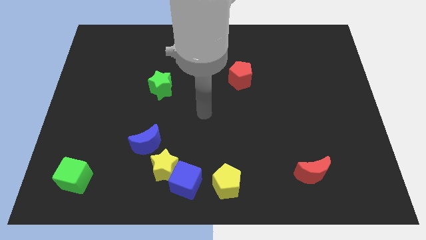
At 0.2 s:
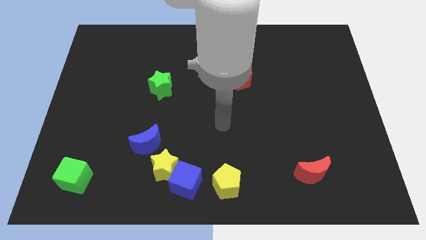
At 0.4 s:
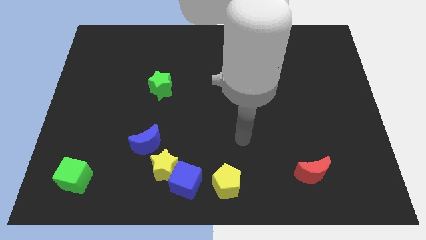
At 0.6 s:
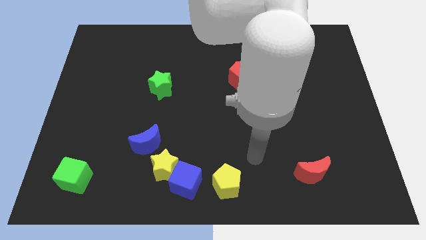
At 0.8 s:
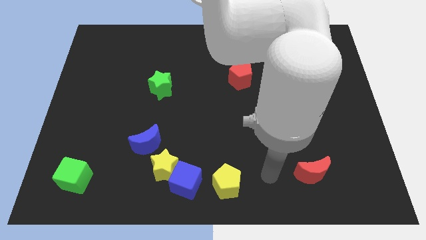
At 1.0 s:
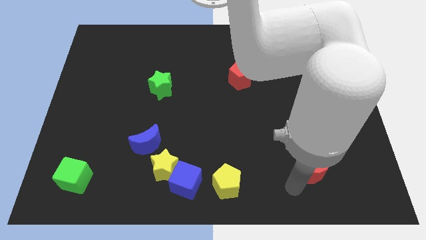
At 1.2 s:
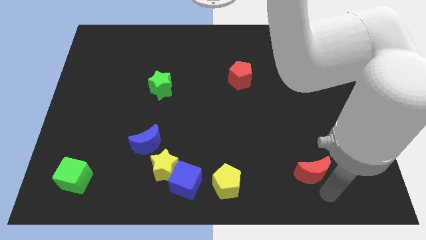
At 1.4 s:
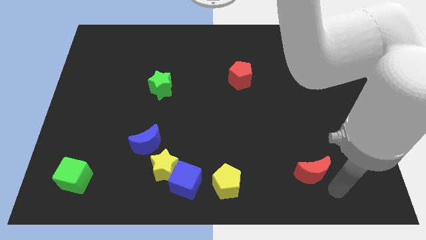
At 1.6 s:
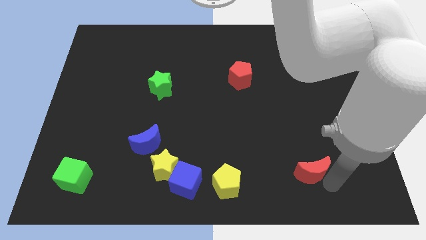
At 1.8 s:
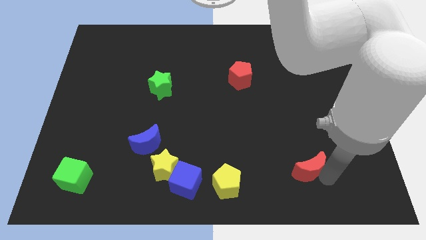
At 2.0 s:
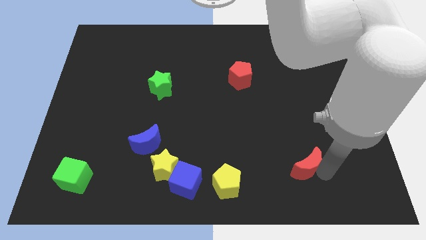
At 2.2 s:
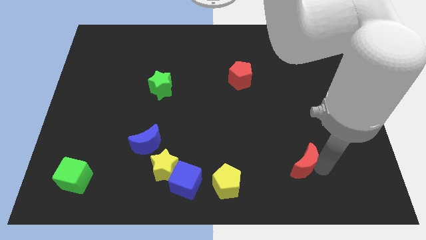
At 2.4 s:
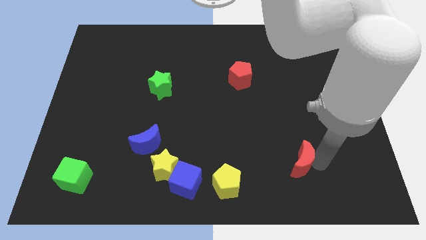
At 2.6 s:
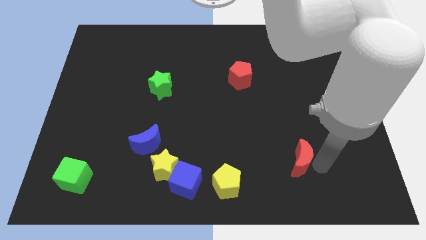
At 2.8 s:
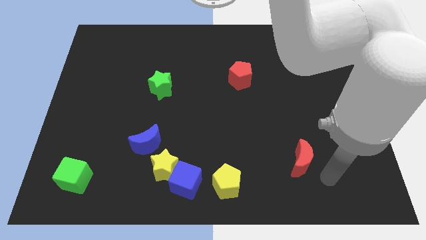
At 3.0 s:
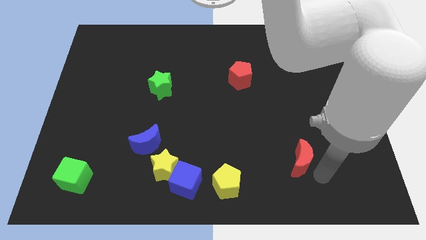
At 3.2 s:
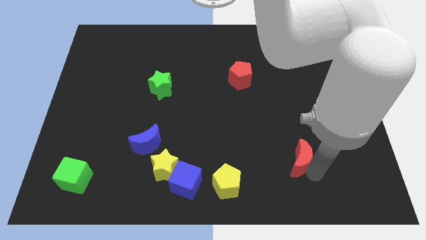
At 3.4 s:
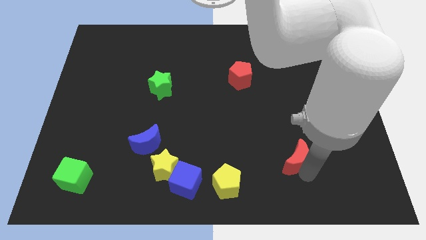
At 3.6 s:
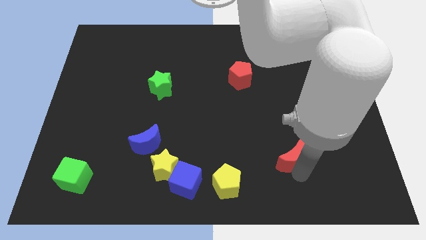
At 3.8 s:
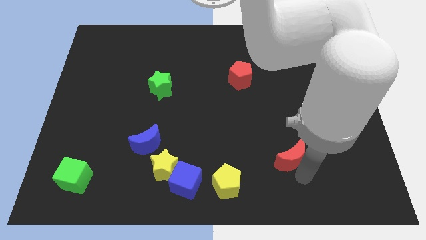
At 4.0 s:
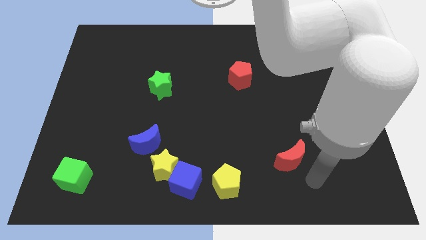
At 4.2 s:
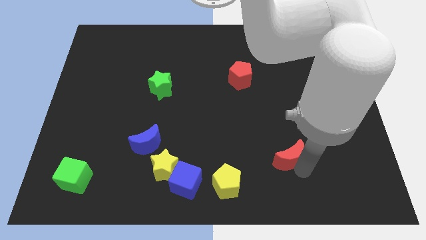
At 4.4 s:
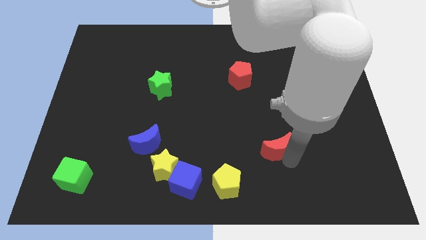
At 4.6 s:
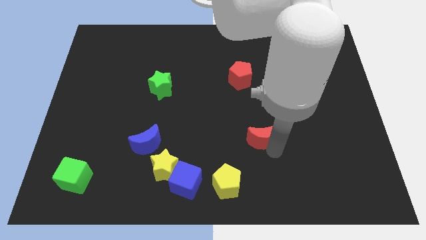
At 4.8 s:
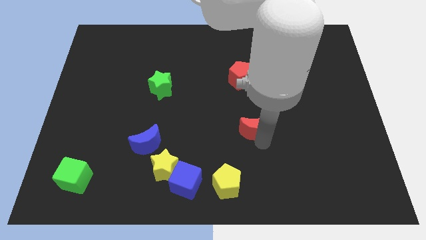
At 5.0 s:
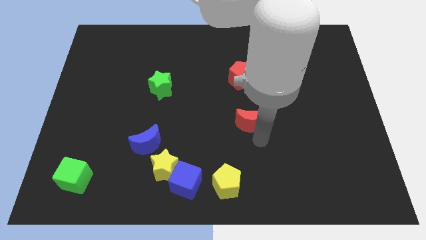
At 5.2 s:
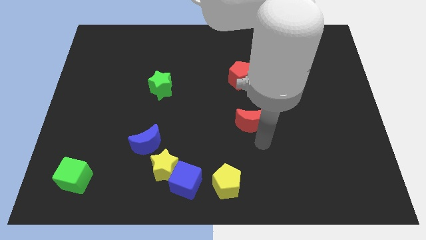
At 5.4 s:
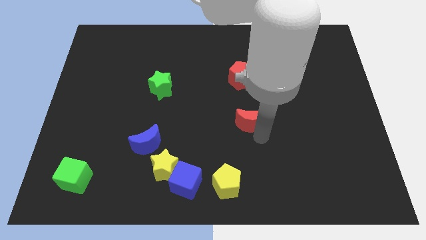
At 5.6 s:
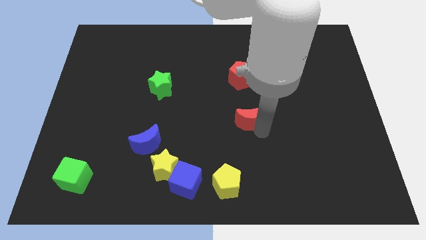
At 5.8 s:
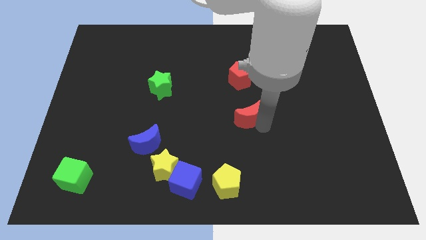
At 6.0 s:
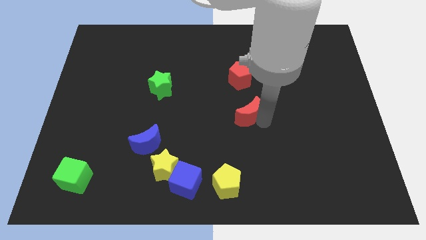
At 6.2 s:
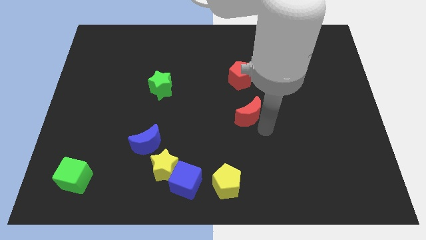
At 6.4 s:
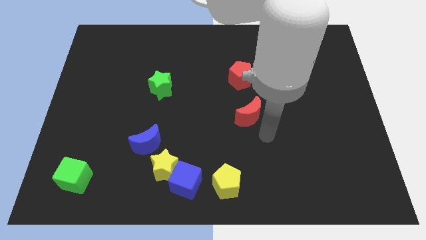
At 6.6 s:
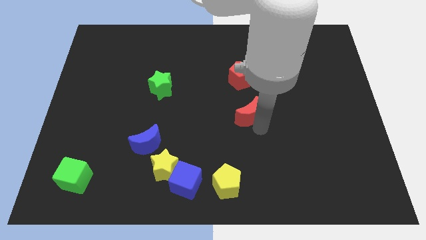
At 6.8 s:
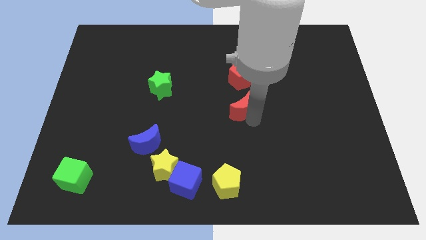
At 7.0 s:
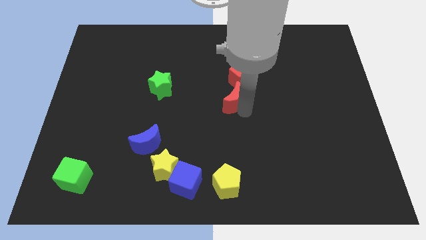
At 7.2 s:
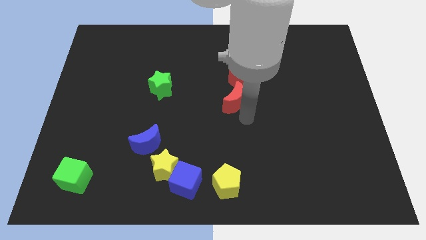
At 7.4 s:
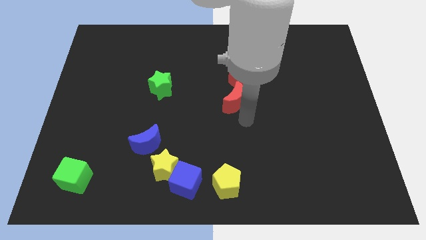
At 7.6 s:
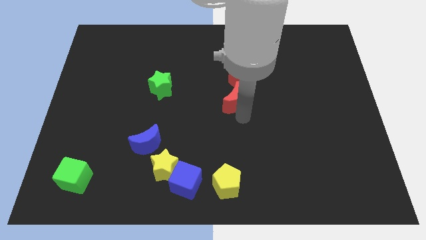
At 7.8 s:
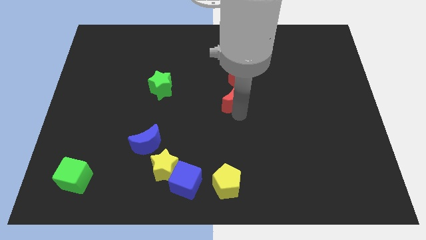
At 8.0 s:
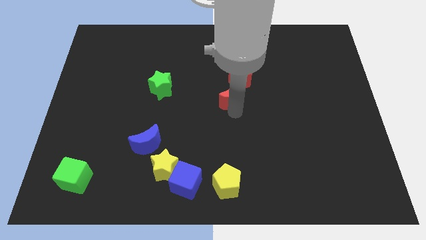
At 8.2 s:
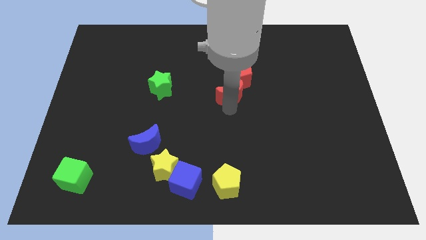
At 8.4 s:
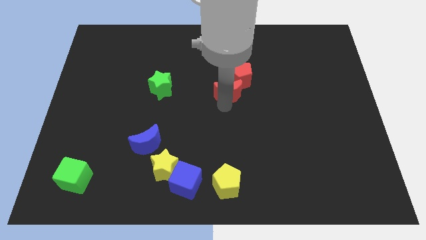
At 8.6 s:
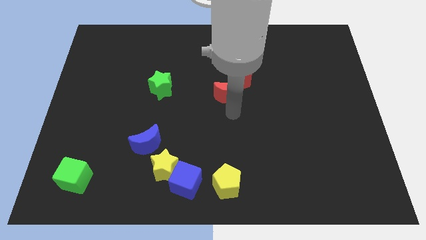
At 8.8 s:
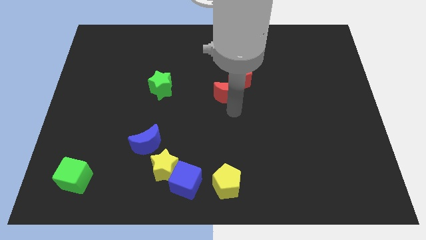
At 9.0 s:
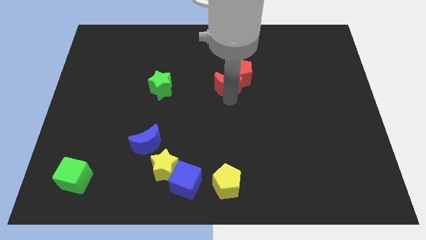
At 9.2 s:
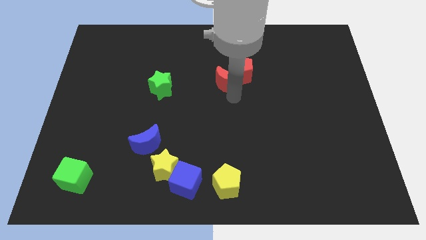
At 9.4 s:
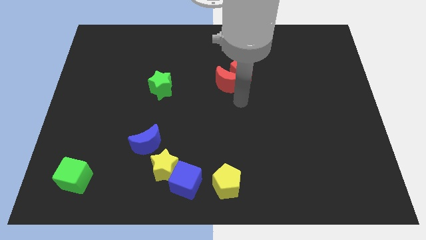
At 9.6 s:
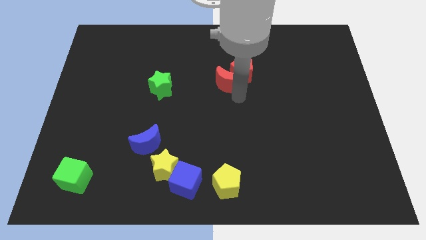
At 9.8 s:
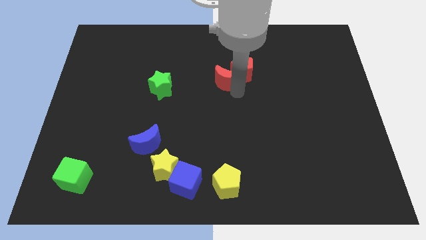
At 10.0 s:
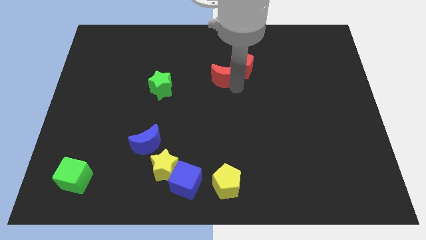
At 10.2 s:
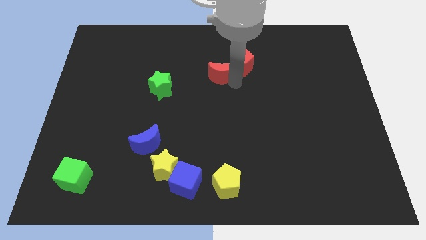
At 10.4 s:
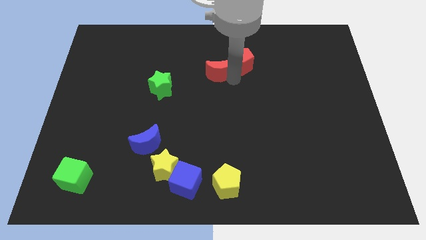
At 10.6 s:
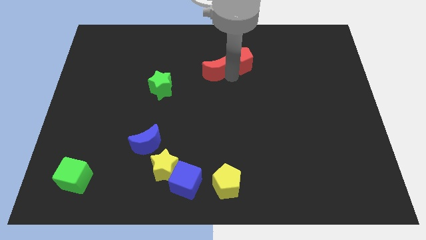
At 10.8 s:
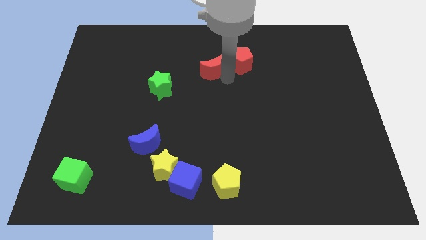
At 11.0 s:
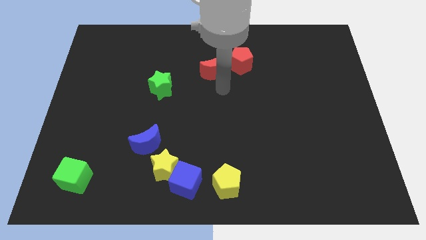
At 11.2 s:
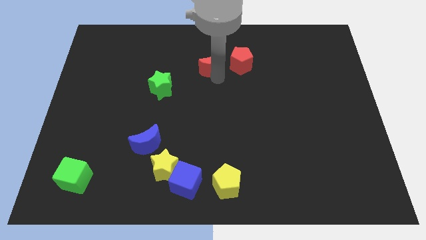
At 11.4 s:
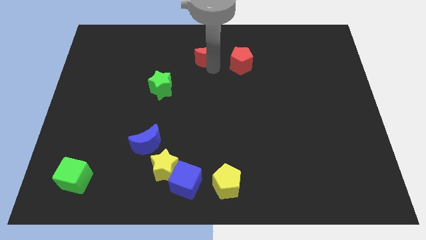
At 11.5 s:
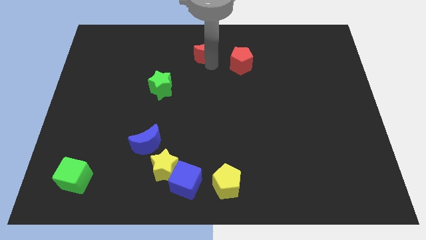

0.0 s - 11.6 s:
put the red moon to the towards your base

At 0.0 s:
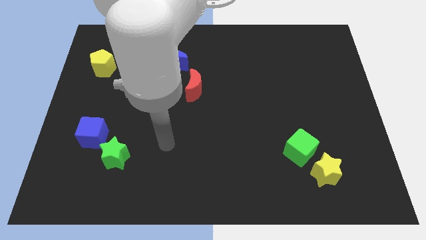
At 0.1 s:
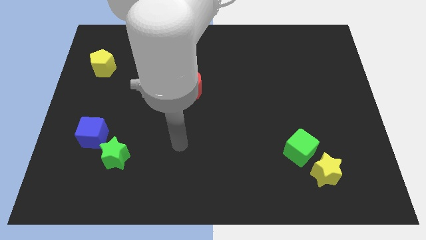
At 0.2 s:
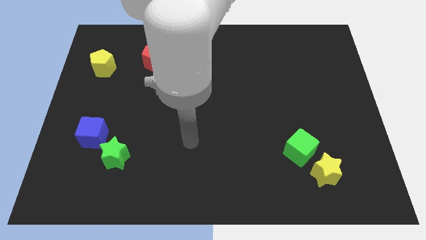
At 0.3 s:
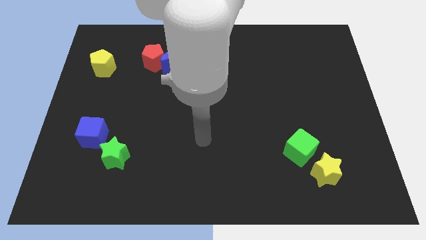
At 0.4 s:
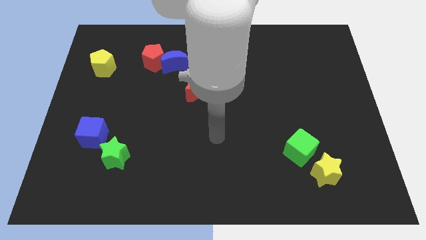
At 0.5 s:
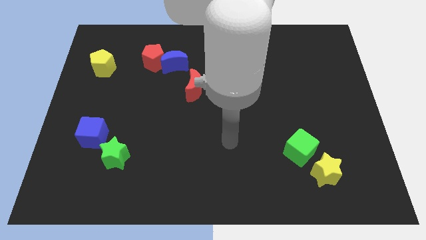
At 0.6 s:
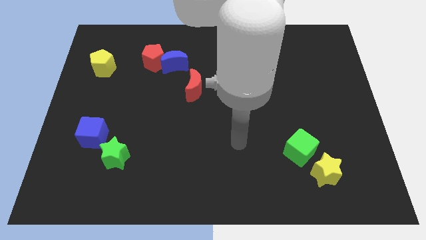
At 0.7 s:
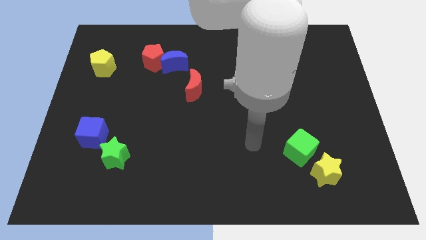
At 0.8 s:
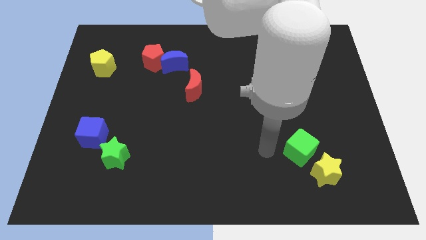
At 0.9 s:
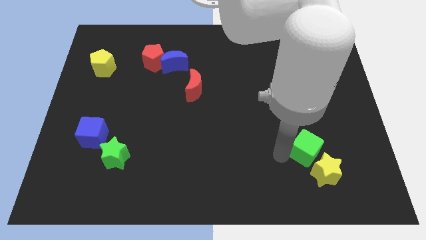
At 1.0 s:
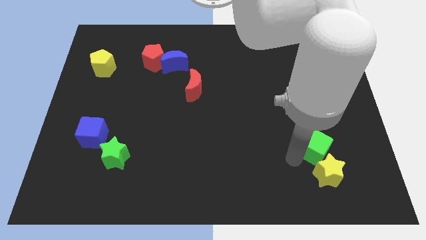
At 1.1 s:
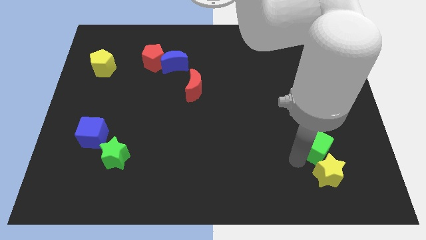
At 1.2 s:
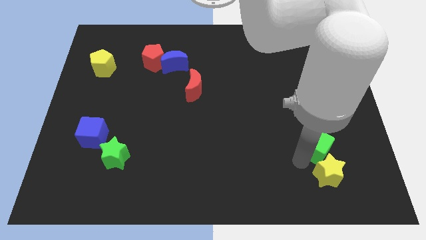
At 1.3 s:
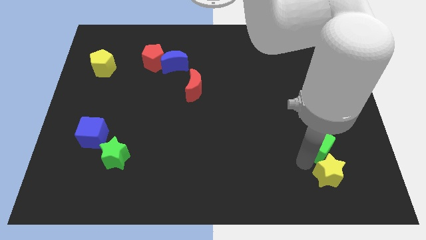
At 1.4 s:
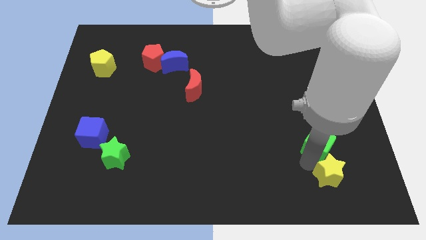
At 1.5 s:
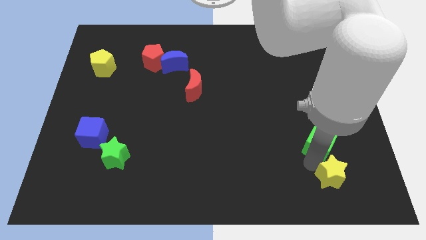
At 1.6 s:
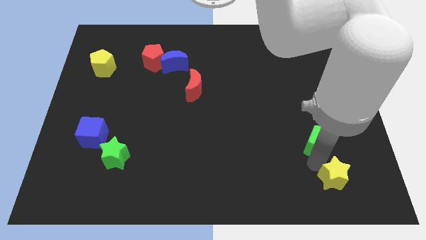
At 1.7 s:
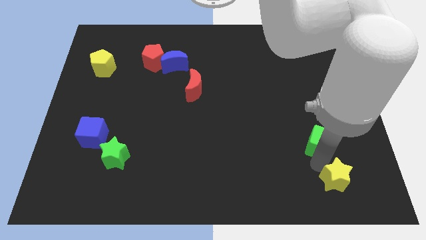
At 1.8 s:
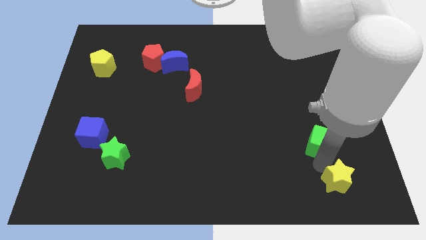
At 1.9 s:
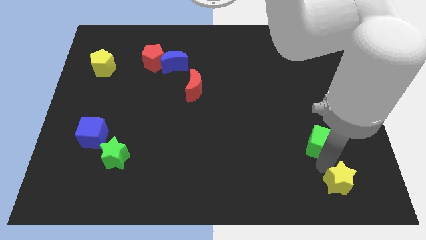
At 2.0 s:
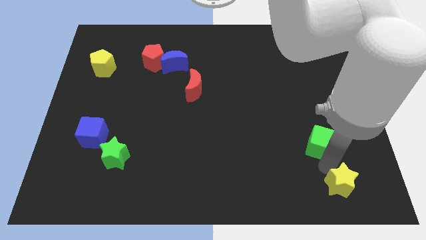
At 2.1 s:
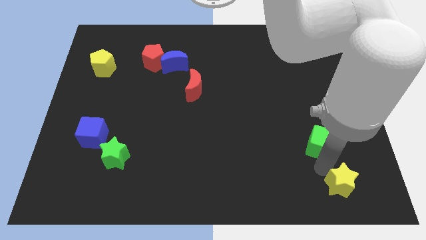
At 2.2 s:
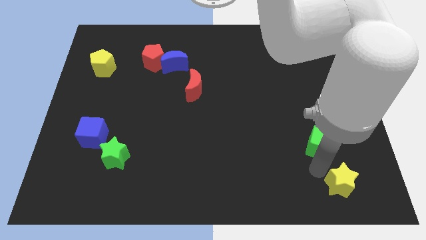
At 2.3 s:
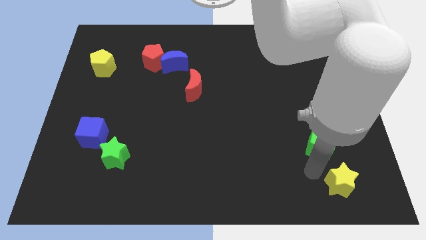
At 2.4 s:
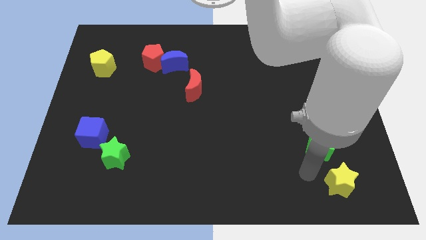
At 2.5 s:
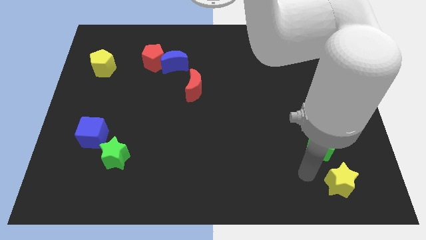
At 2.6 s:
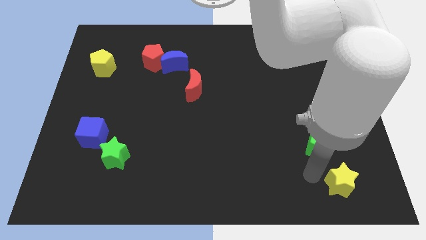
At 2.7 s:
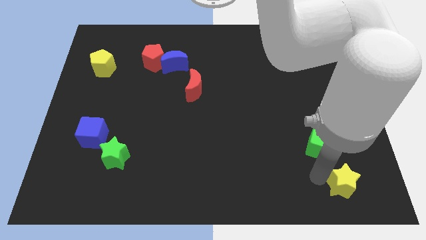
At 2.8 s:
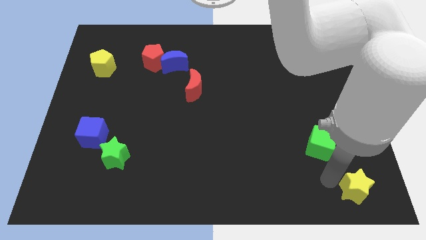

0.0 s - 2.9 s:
put the yellow star to the lower right corner
